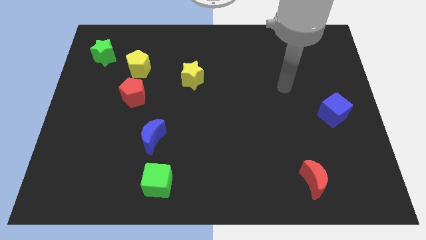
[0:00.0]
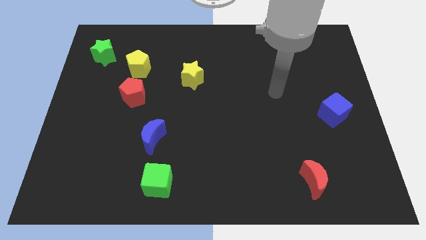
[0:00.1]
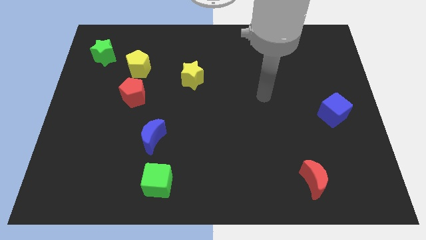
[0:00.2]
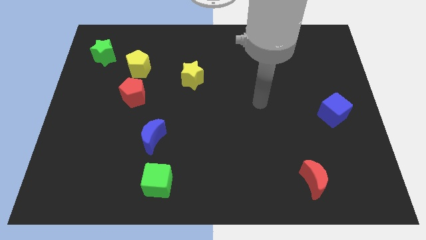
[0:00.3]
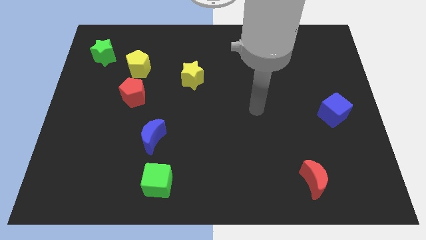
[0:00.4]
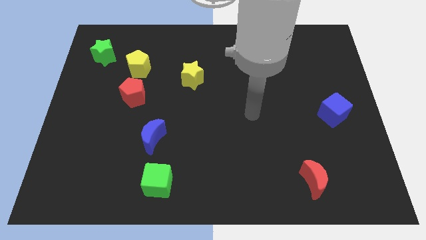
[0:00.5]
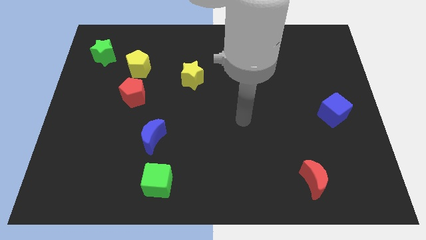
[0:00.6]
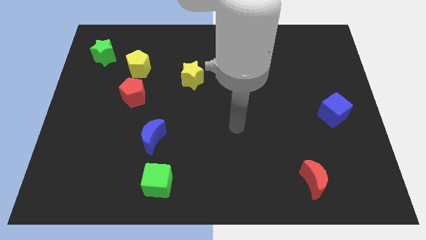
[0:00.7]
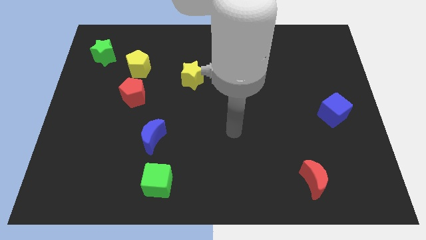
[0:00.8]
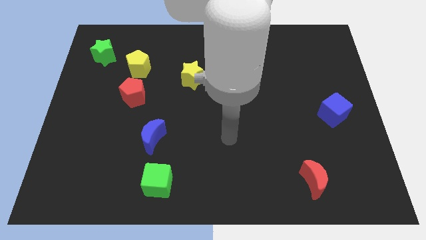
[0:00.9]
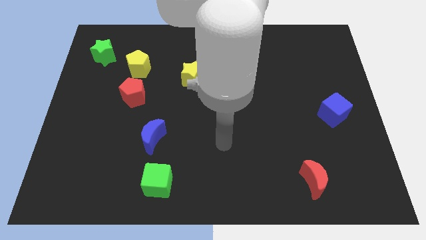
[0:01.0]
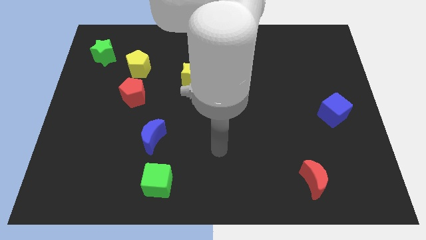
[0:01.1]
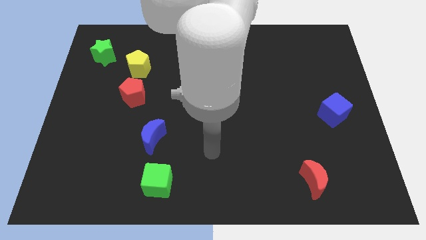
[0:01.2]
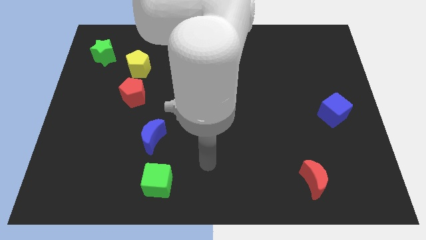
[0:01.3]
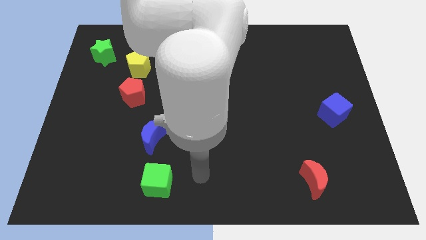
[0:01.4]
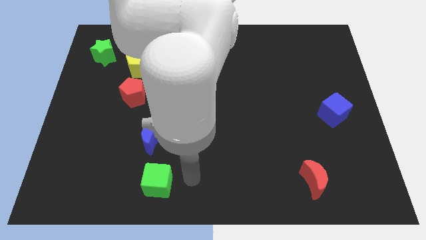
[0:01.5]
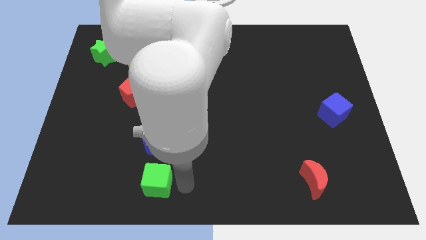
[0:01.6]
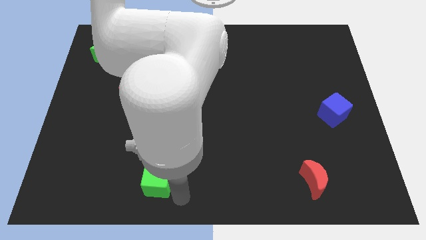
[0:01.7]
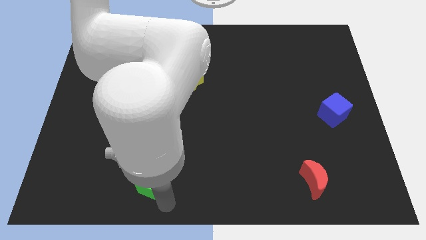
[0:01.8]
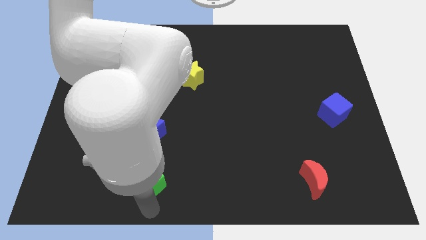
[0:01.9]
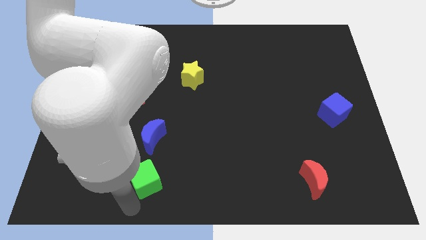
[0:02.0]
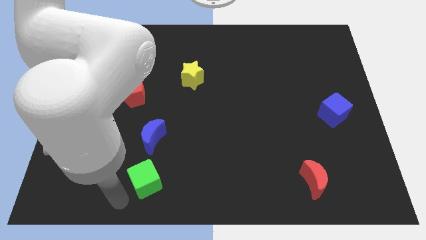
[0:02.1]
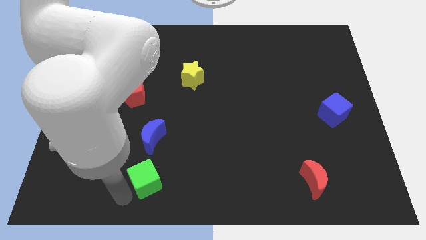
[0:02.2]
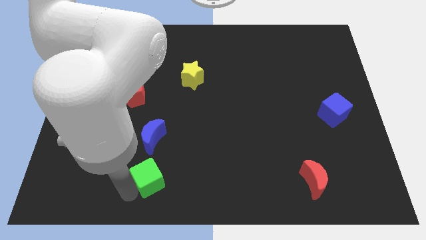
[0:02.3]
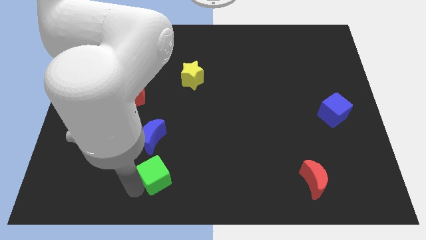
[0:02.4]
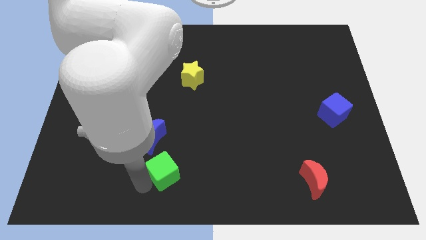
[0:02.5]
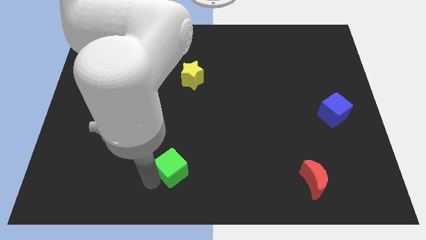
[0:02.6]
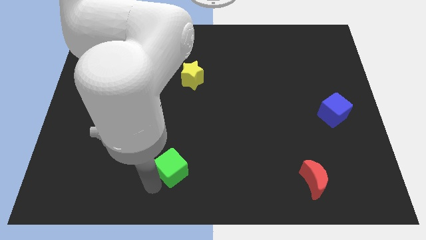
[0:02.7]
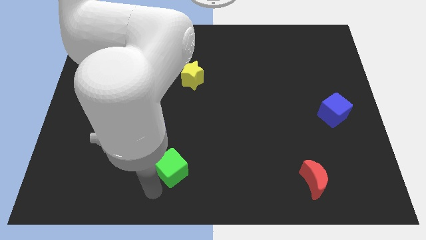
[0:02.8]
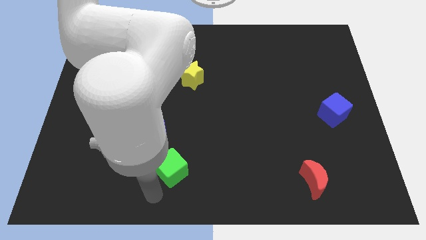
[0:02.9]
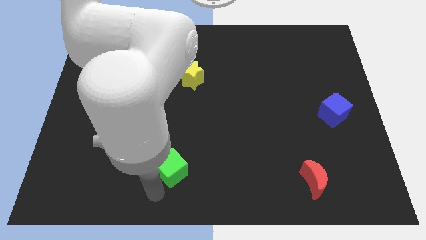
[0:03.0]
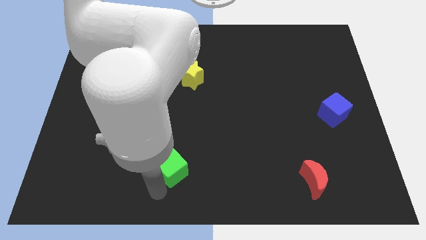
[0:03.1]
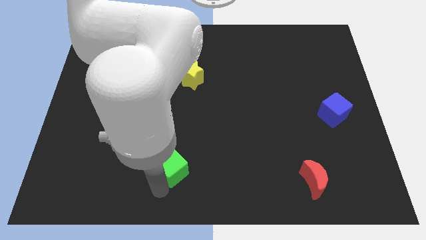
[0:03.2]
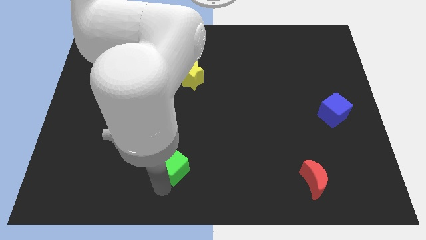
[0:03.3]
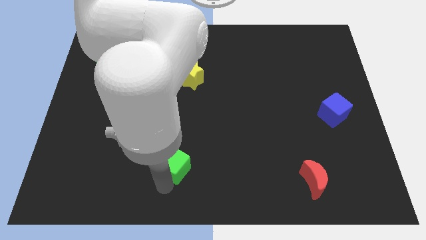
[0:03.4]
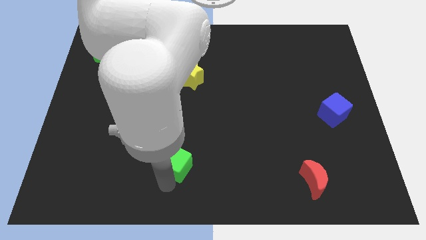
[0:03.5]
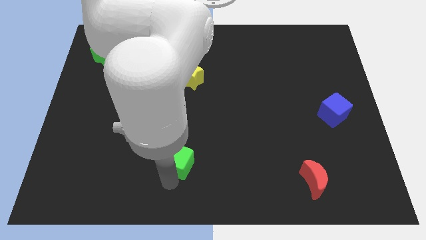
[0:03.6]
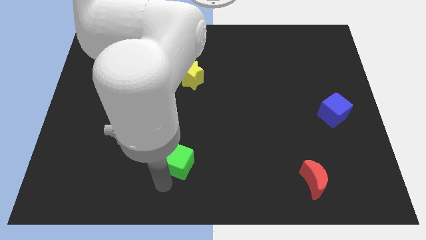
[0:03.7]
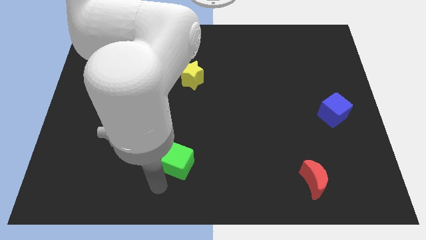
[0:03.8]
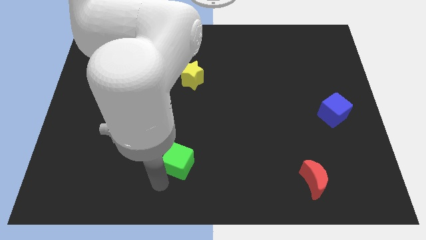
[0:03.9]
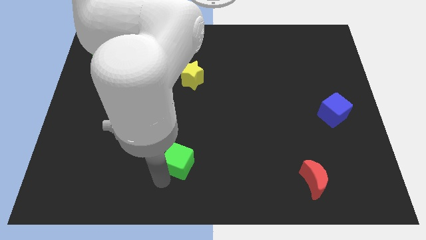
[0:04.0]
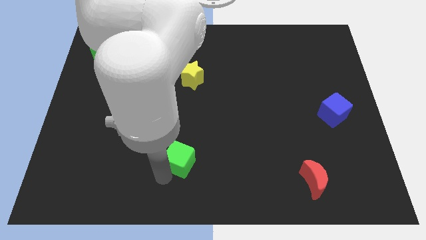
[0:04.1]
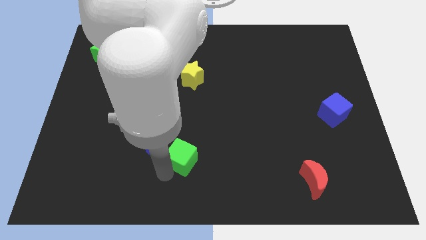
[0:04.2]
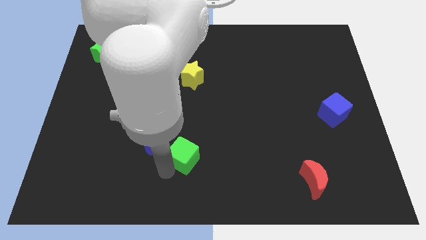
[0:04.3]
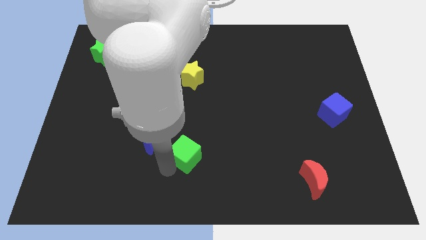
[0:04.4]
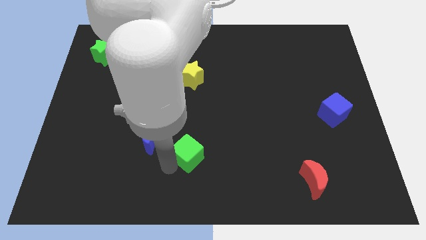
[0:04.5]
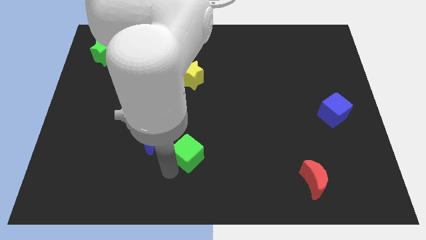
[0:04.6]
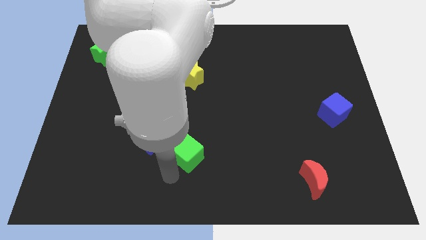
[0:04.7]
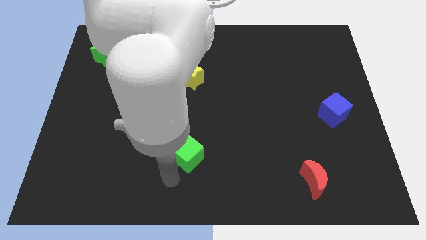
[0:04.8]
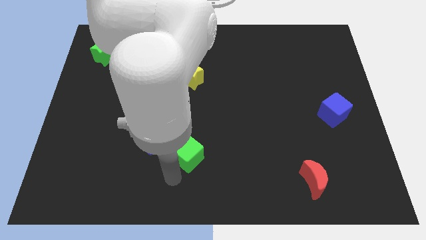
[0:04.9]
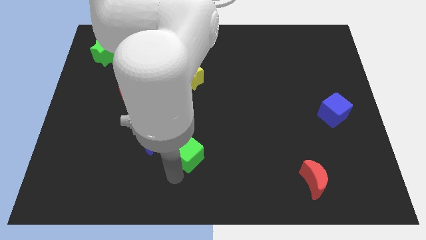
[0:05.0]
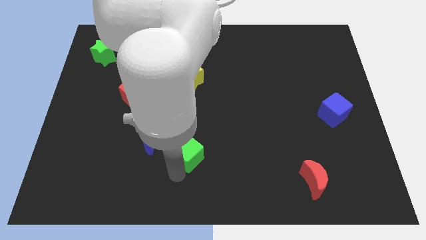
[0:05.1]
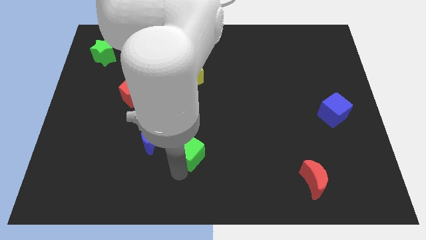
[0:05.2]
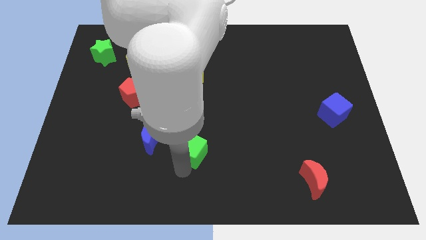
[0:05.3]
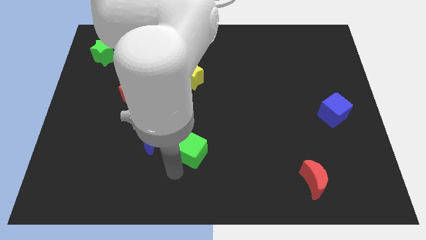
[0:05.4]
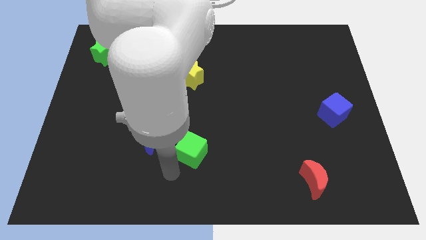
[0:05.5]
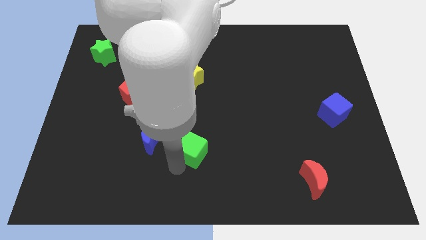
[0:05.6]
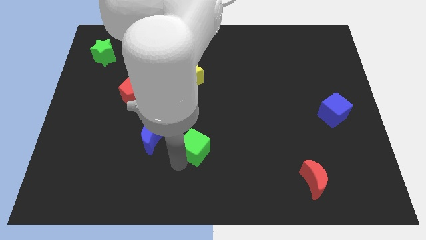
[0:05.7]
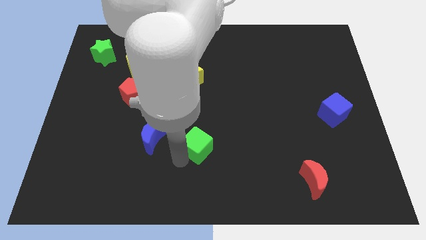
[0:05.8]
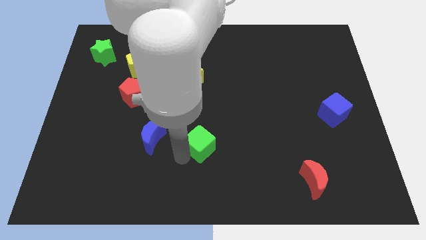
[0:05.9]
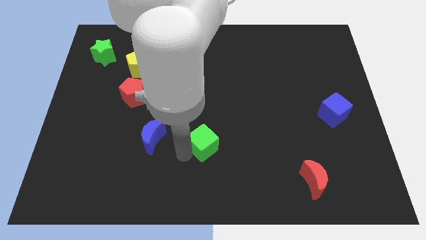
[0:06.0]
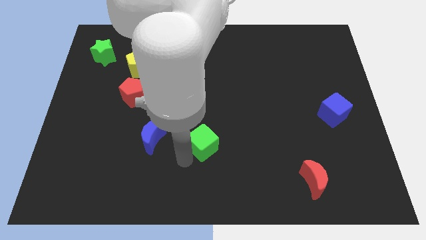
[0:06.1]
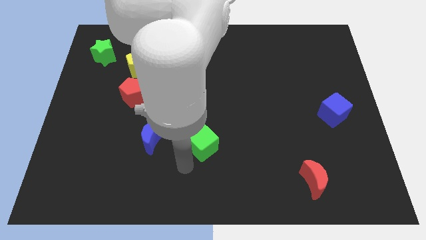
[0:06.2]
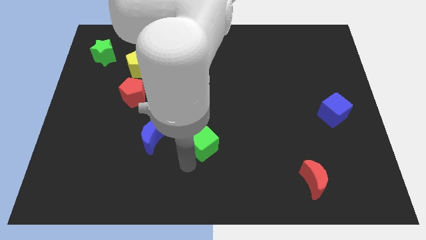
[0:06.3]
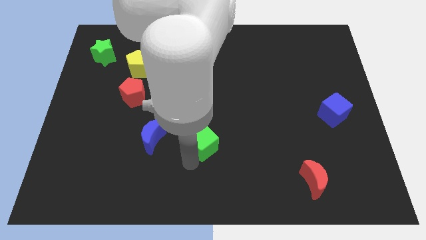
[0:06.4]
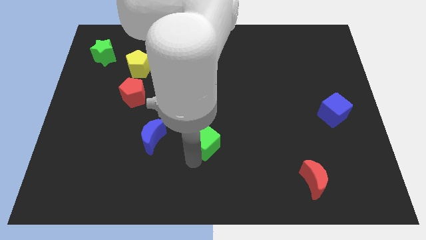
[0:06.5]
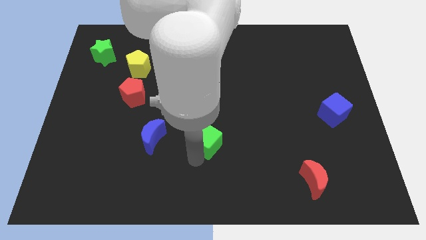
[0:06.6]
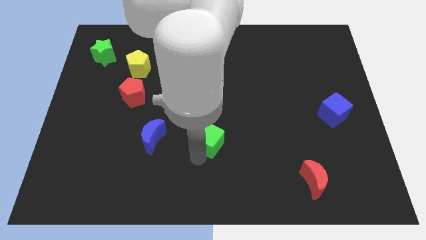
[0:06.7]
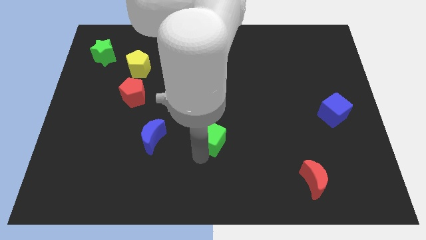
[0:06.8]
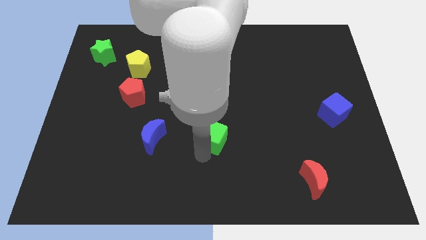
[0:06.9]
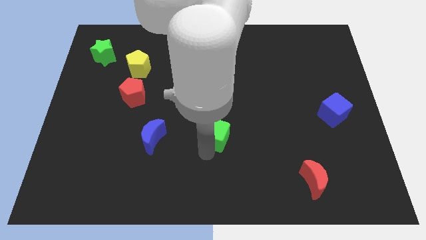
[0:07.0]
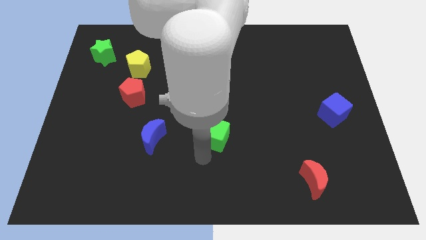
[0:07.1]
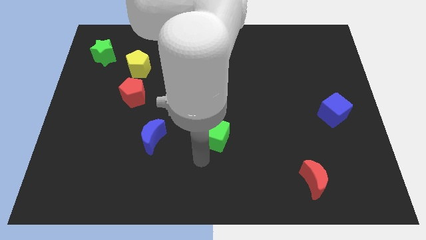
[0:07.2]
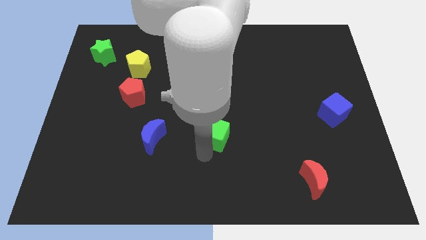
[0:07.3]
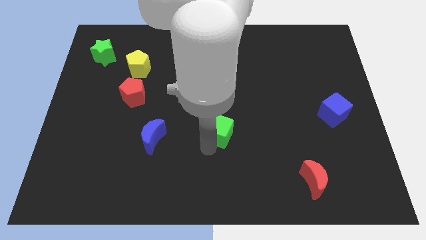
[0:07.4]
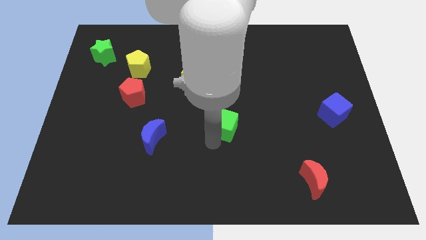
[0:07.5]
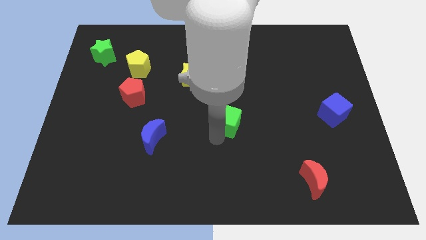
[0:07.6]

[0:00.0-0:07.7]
slide the green cube diagonally up and to the right

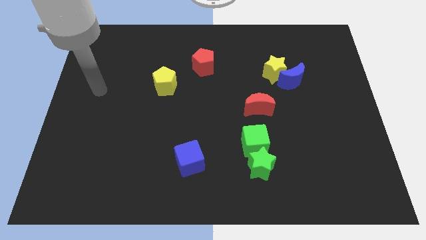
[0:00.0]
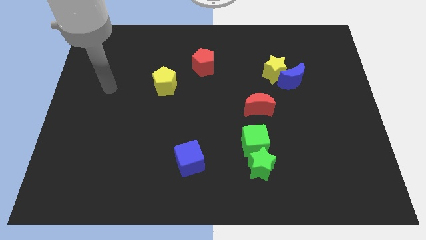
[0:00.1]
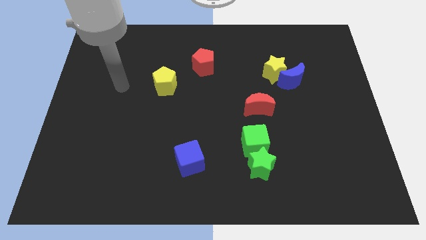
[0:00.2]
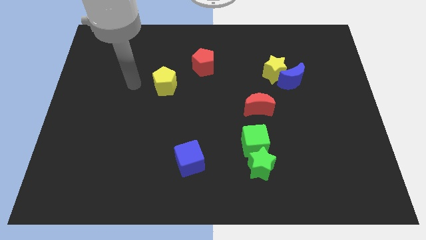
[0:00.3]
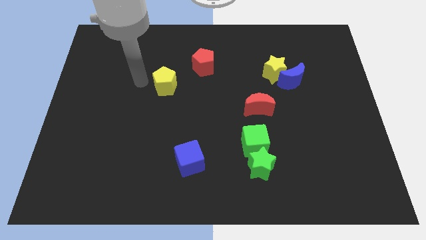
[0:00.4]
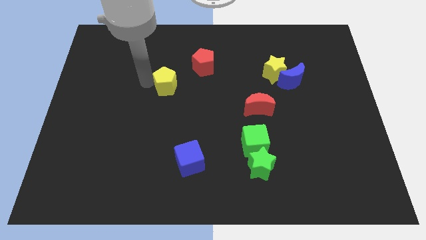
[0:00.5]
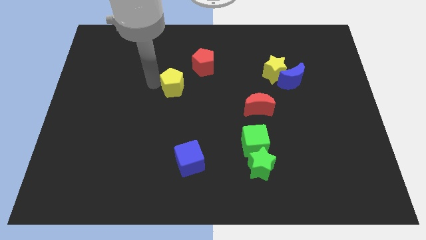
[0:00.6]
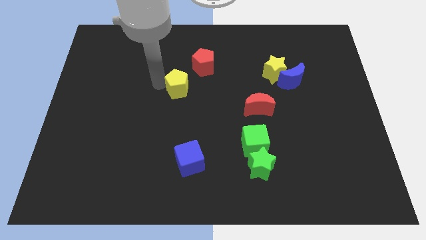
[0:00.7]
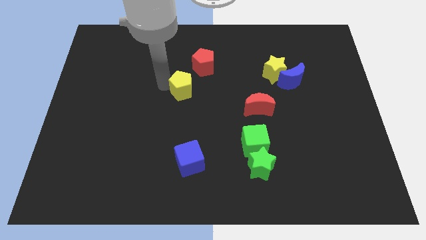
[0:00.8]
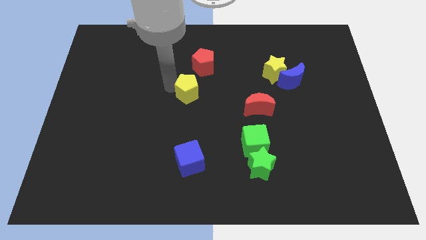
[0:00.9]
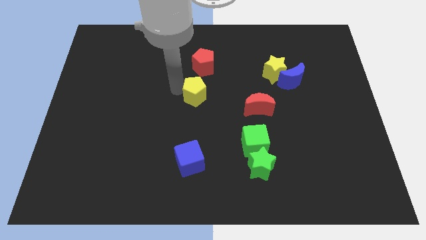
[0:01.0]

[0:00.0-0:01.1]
push the yellow pentagon somewhat to the right
